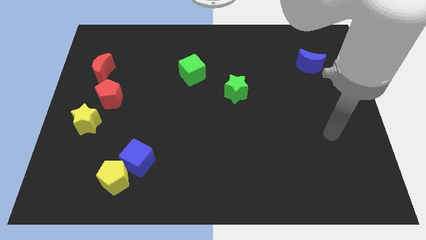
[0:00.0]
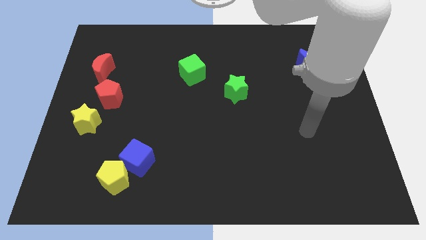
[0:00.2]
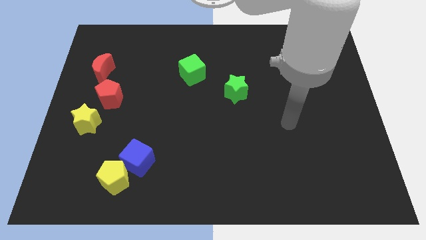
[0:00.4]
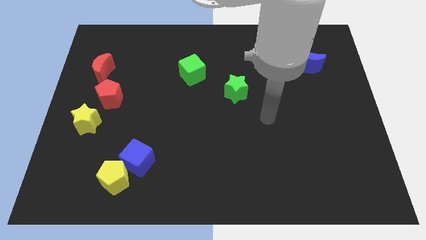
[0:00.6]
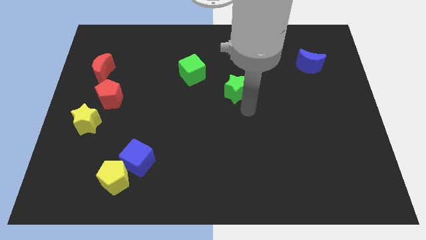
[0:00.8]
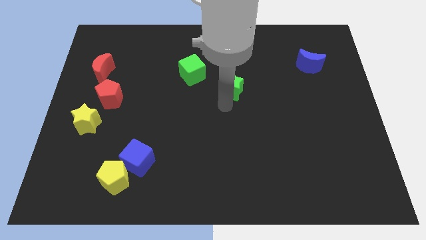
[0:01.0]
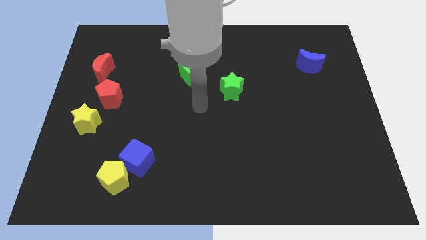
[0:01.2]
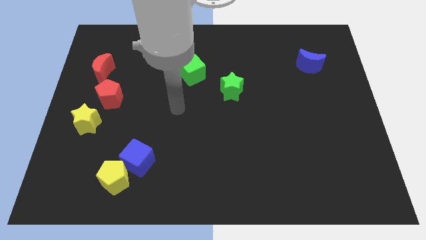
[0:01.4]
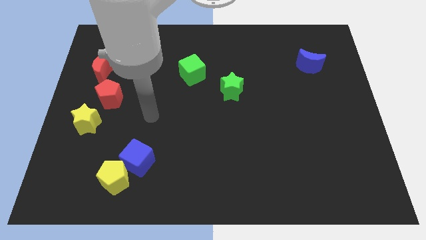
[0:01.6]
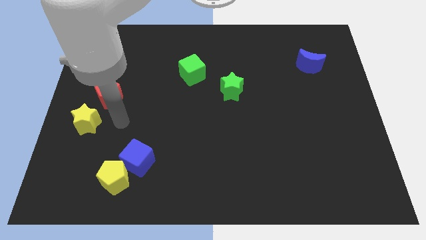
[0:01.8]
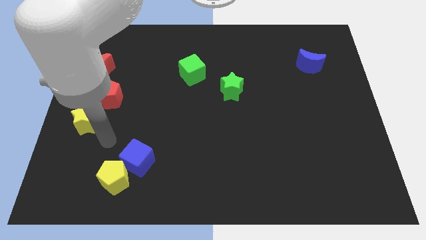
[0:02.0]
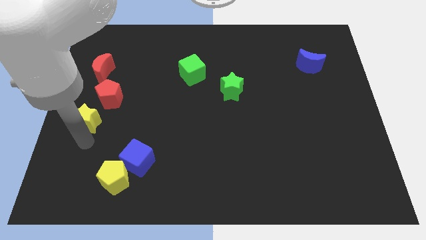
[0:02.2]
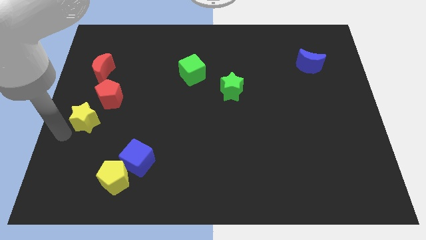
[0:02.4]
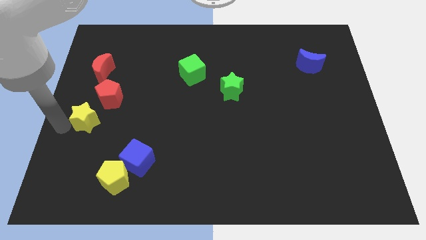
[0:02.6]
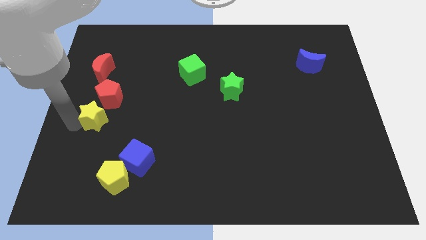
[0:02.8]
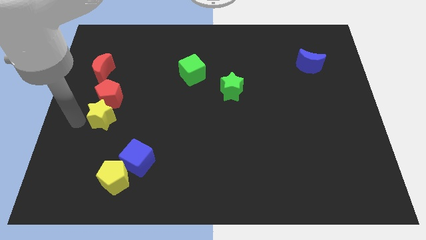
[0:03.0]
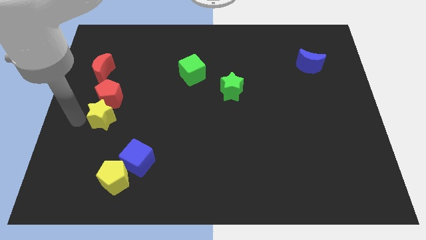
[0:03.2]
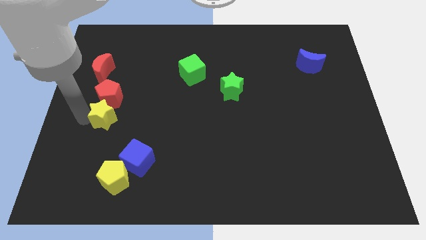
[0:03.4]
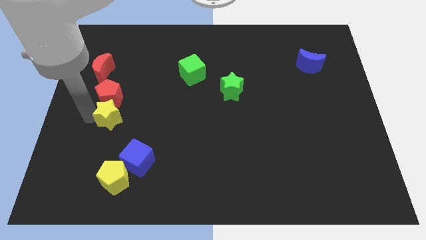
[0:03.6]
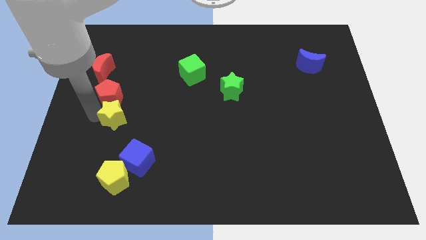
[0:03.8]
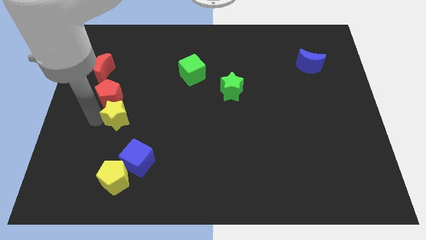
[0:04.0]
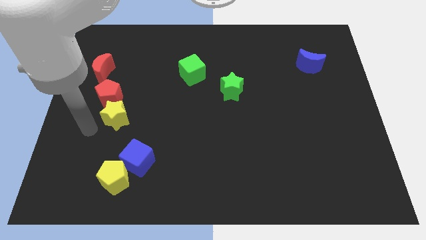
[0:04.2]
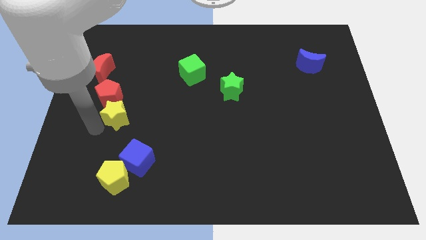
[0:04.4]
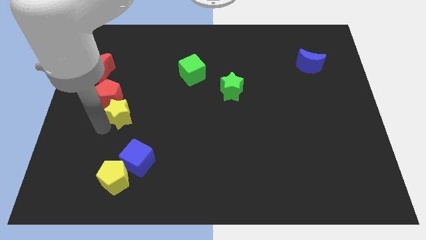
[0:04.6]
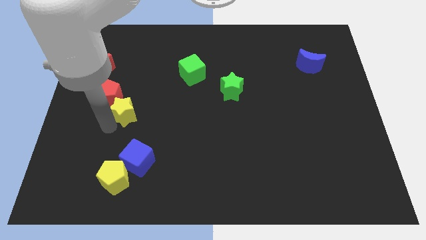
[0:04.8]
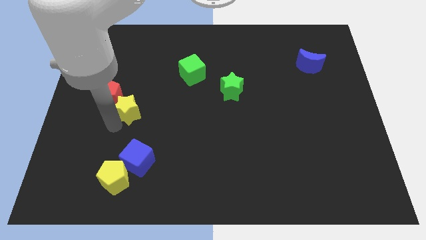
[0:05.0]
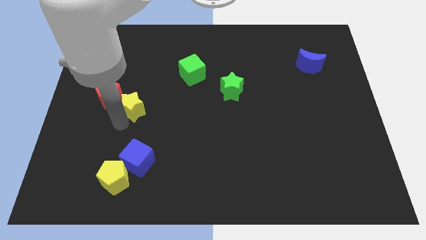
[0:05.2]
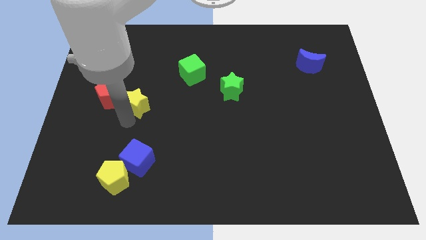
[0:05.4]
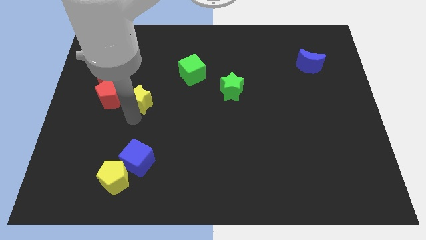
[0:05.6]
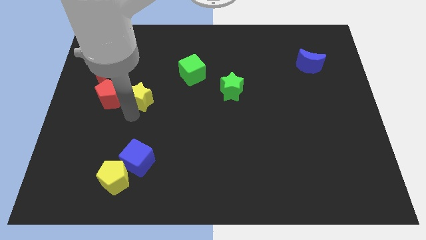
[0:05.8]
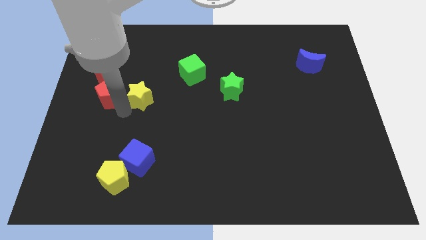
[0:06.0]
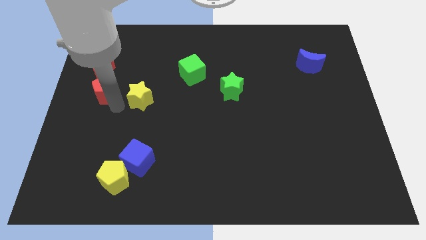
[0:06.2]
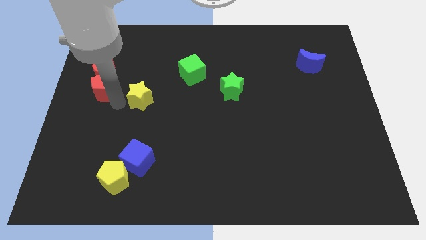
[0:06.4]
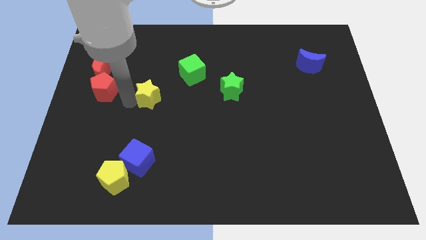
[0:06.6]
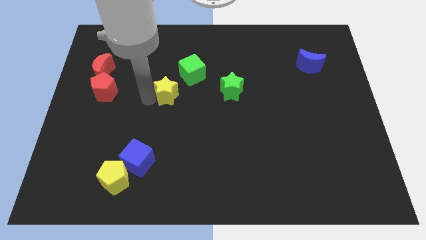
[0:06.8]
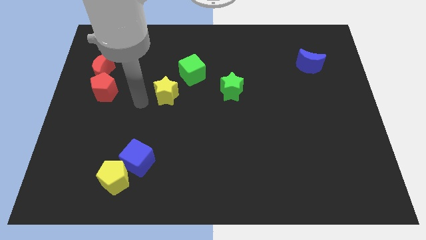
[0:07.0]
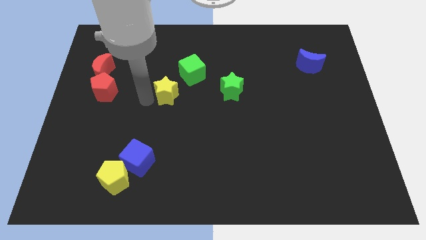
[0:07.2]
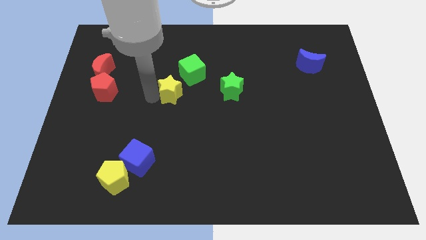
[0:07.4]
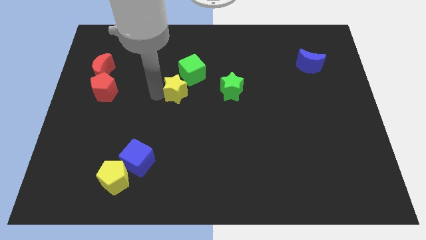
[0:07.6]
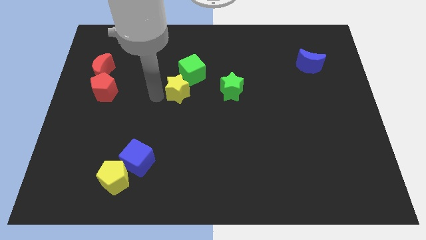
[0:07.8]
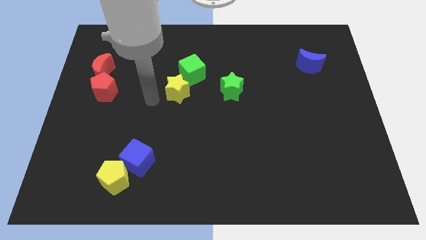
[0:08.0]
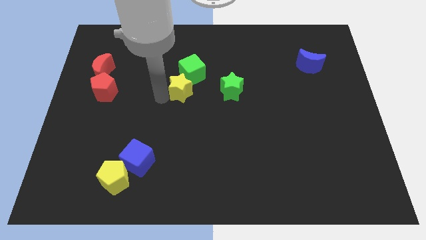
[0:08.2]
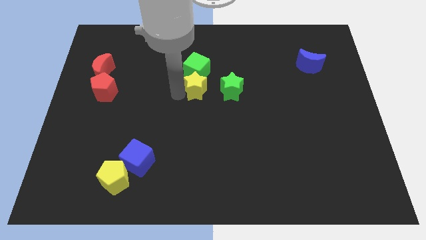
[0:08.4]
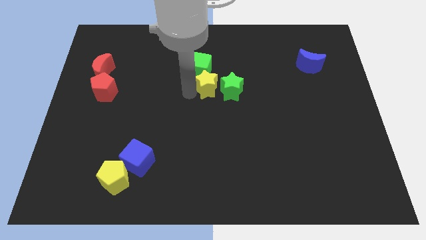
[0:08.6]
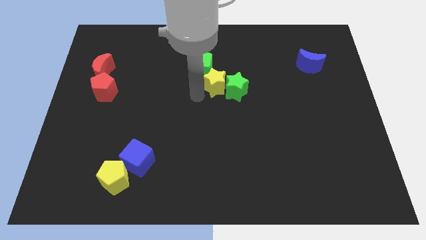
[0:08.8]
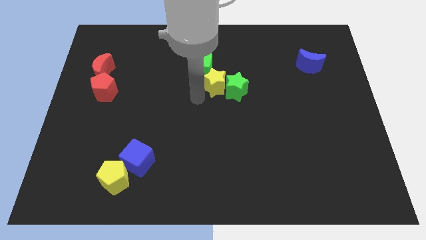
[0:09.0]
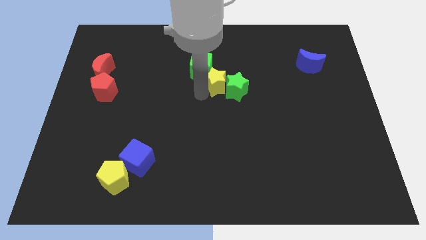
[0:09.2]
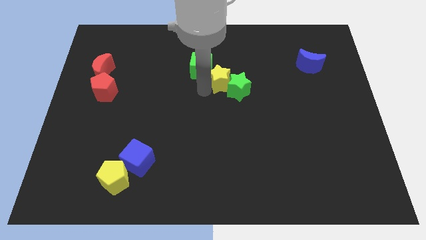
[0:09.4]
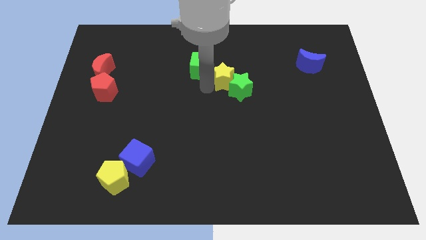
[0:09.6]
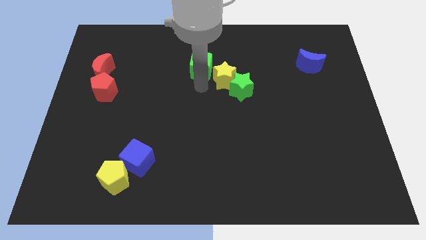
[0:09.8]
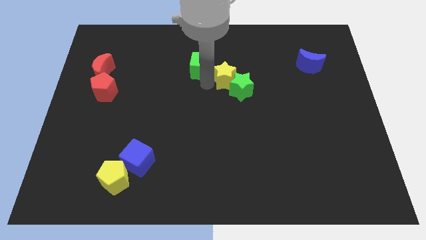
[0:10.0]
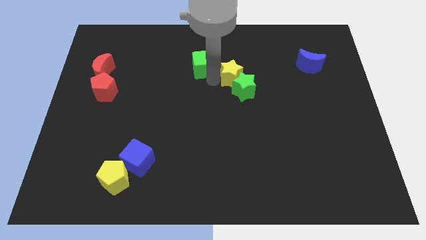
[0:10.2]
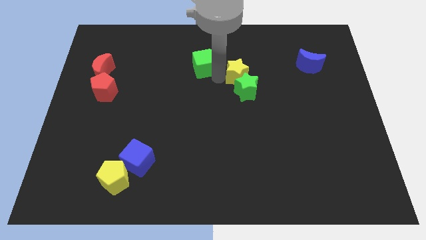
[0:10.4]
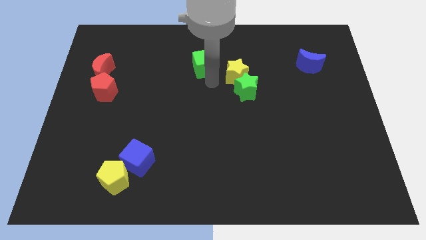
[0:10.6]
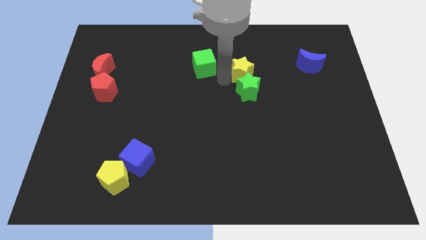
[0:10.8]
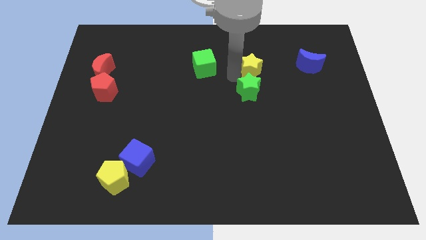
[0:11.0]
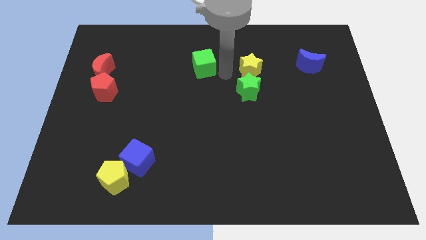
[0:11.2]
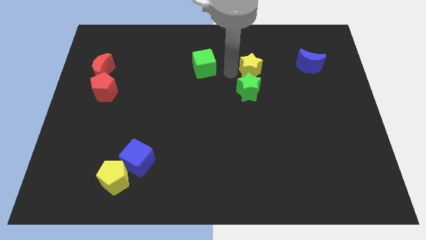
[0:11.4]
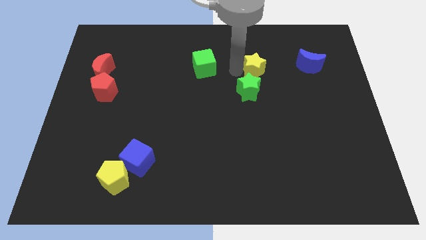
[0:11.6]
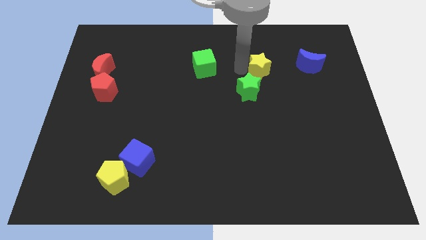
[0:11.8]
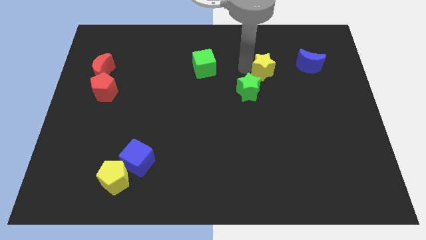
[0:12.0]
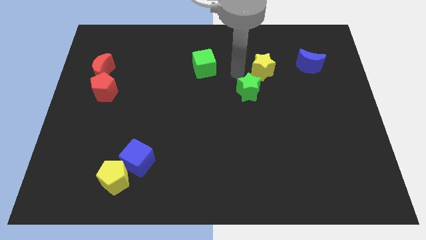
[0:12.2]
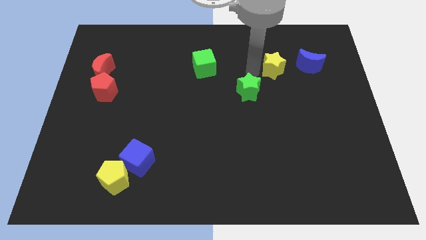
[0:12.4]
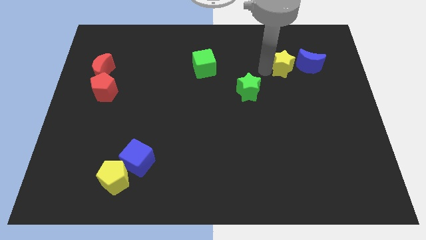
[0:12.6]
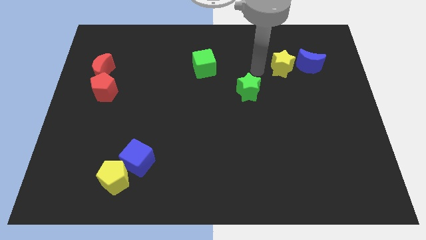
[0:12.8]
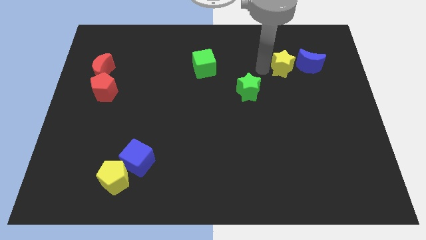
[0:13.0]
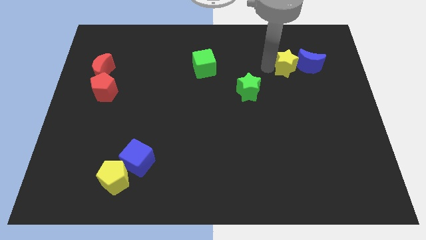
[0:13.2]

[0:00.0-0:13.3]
slide the yellow star close to the blue moon
